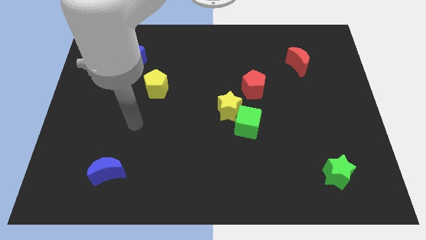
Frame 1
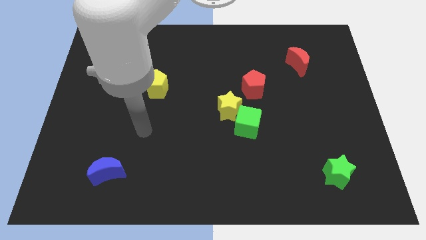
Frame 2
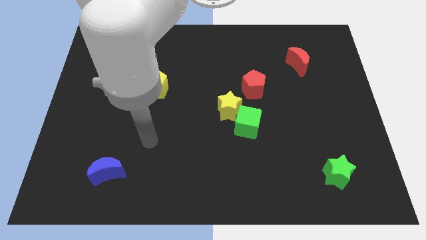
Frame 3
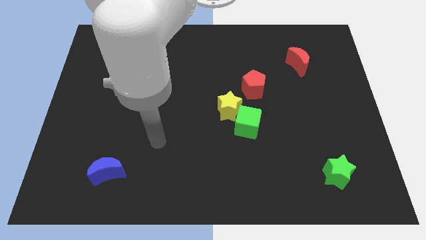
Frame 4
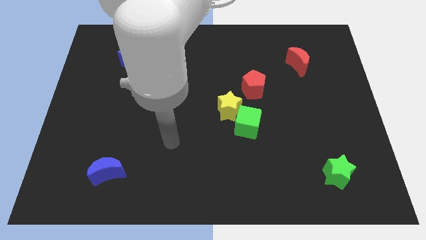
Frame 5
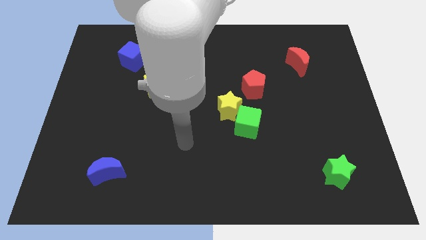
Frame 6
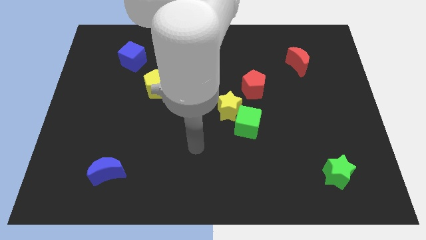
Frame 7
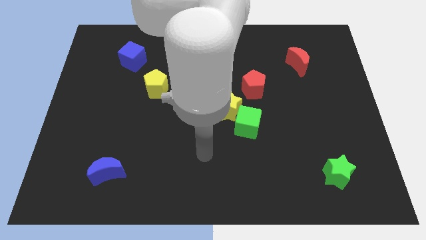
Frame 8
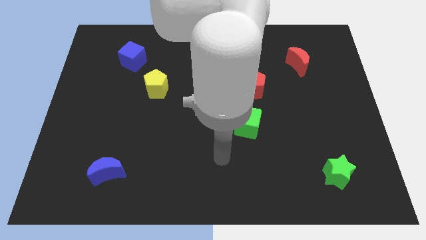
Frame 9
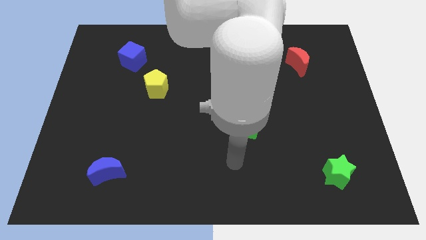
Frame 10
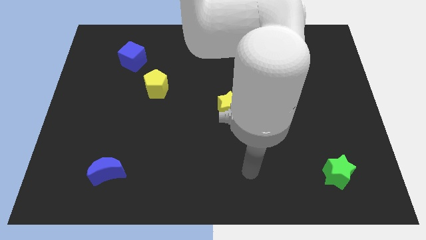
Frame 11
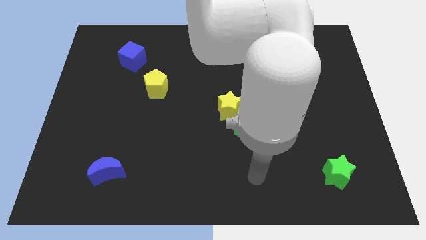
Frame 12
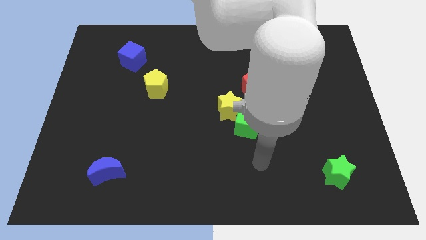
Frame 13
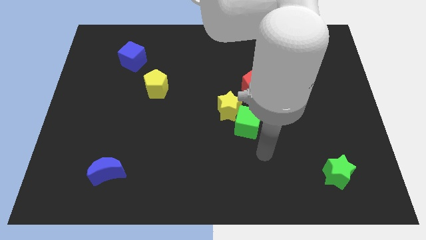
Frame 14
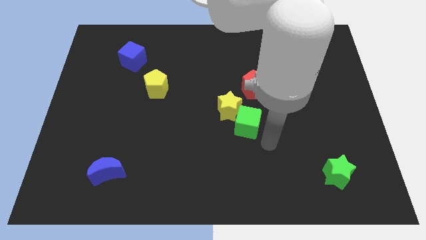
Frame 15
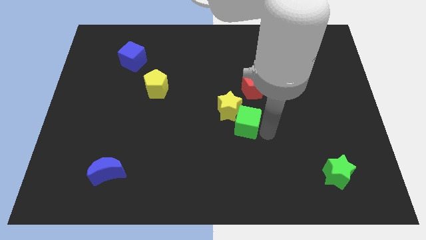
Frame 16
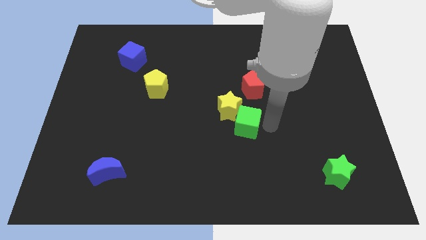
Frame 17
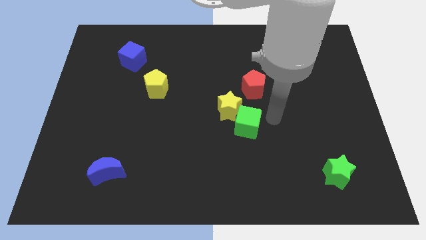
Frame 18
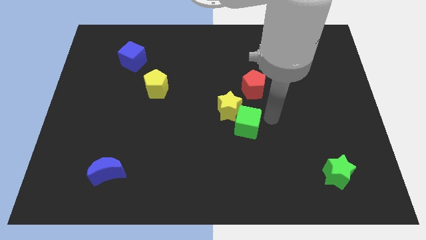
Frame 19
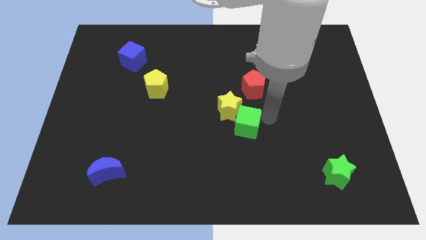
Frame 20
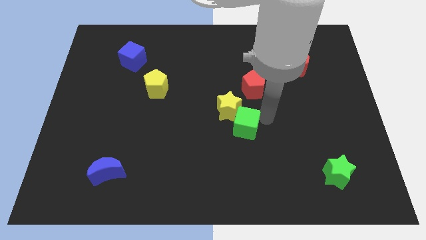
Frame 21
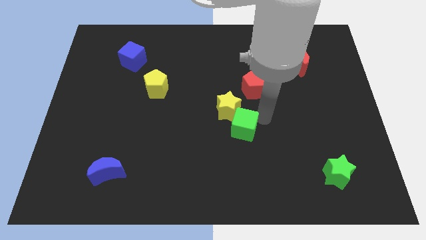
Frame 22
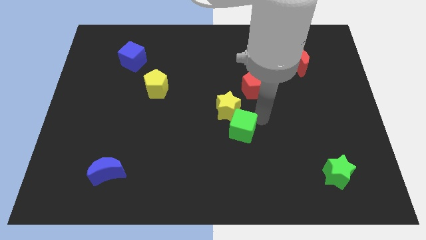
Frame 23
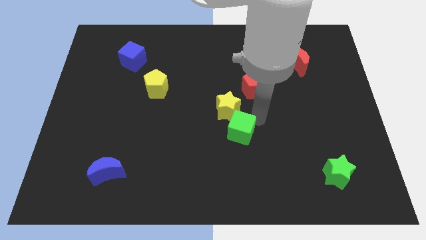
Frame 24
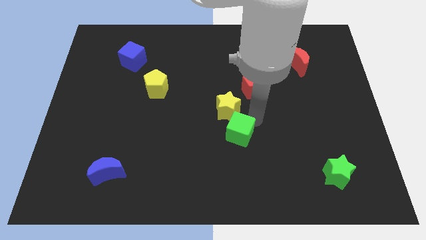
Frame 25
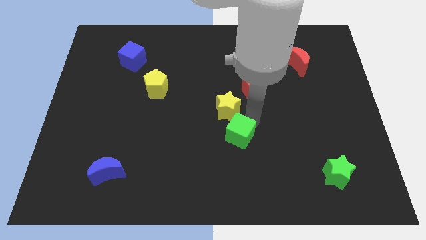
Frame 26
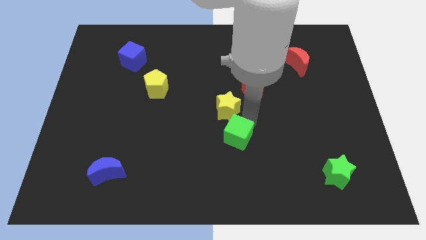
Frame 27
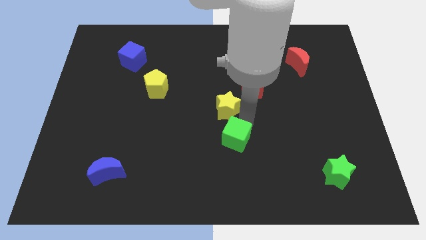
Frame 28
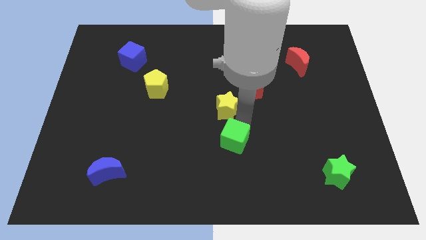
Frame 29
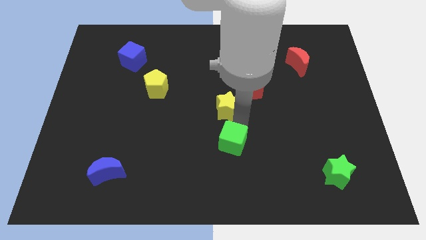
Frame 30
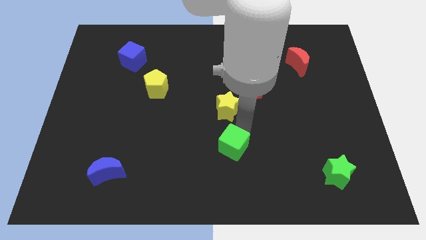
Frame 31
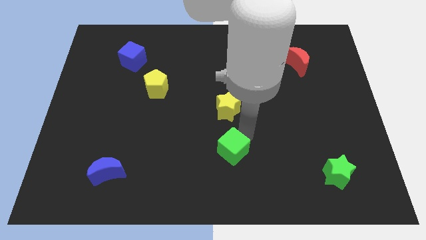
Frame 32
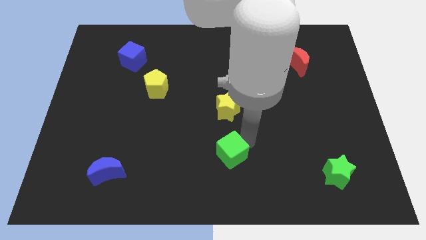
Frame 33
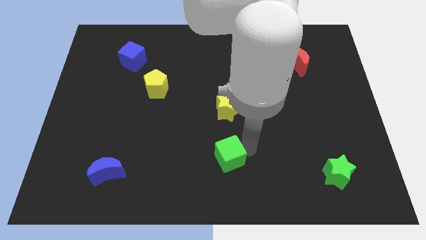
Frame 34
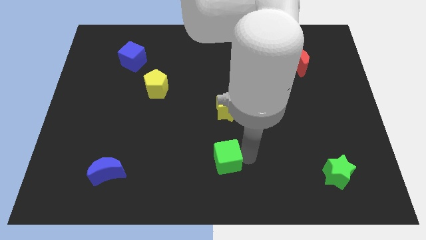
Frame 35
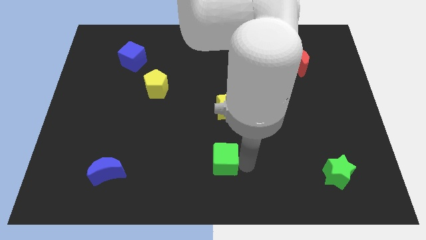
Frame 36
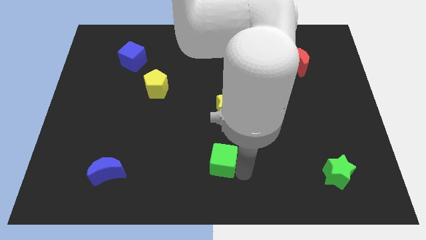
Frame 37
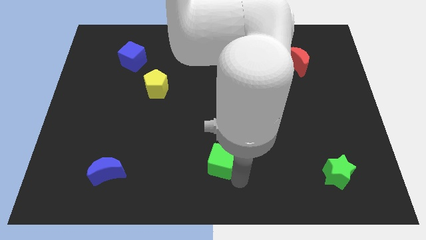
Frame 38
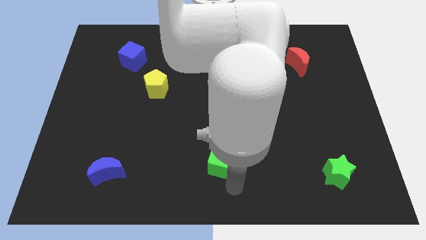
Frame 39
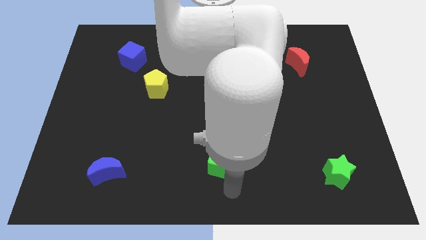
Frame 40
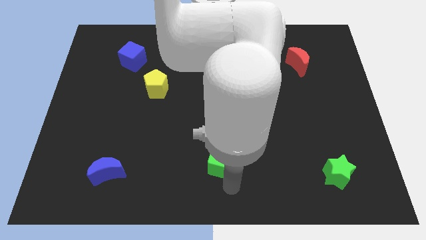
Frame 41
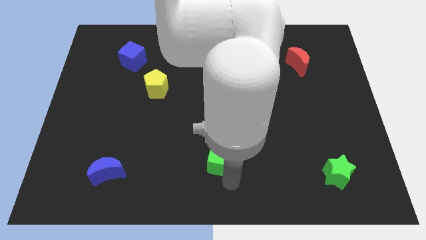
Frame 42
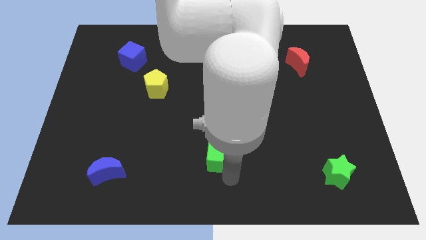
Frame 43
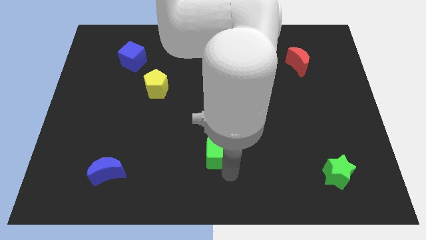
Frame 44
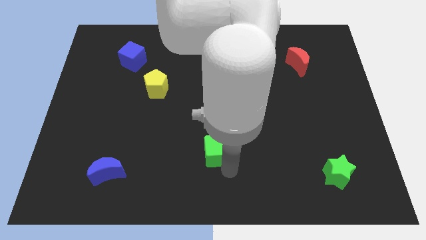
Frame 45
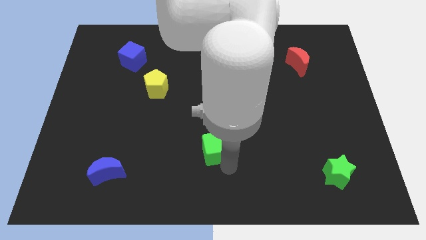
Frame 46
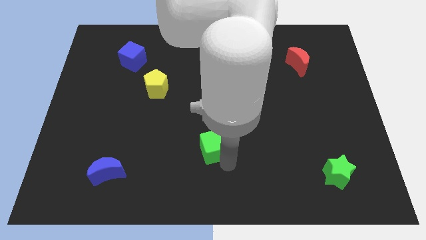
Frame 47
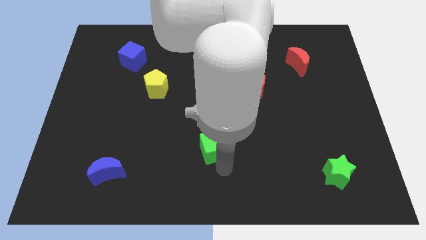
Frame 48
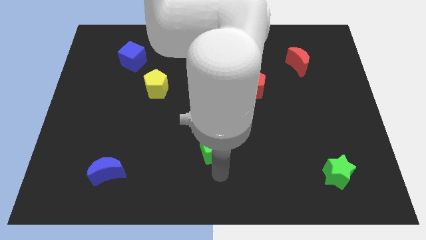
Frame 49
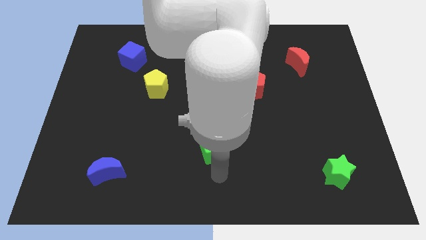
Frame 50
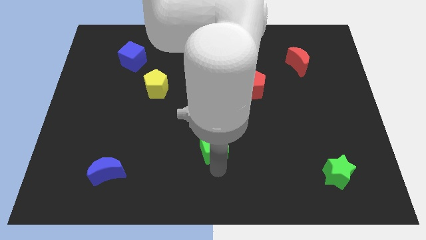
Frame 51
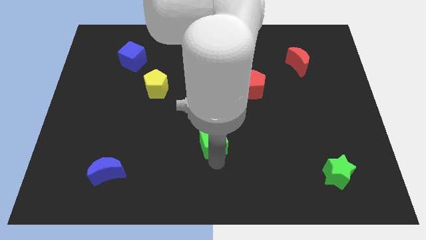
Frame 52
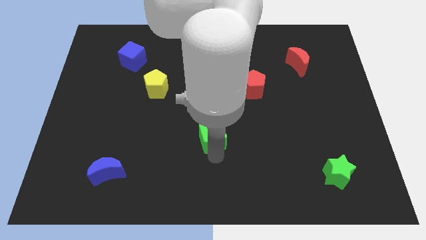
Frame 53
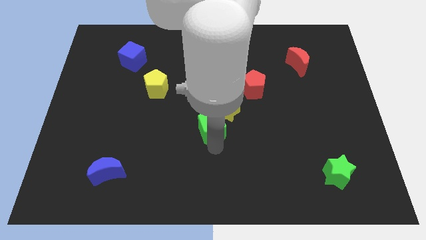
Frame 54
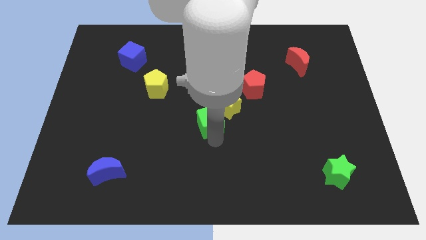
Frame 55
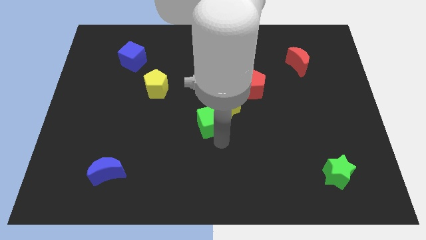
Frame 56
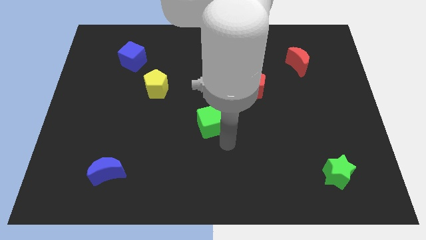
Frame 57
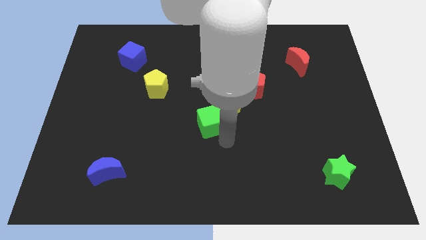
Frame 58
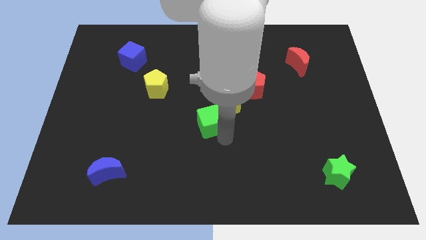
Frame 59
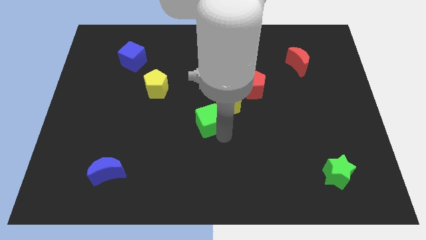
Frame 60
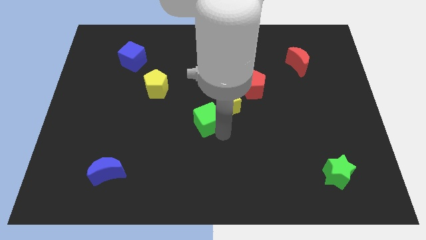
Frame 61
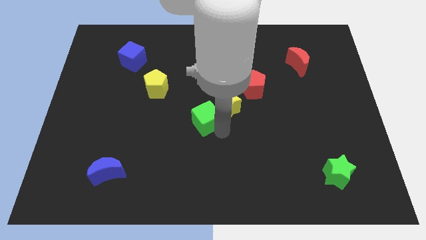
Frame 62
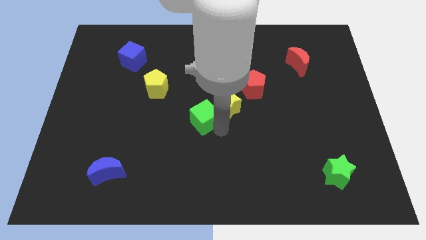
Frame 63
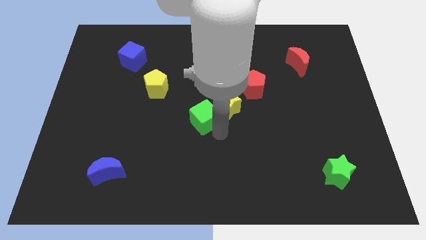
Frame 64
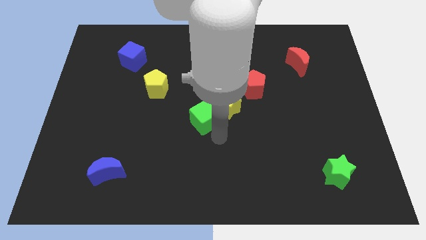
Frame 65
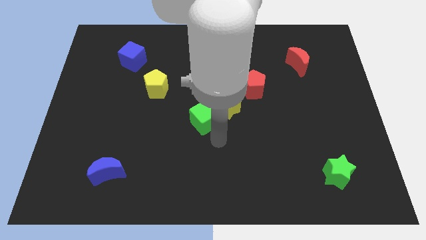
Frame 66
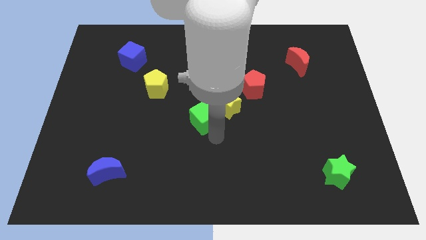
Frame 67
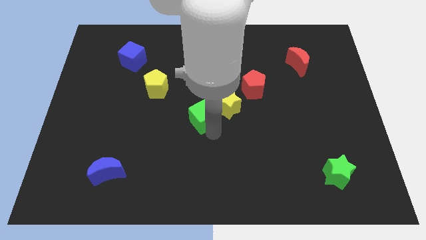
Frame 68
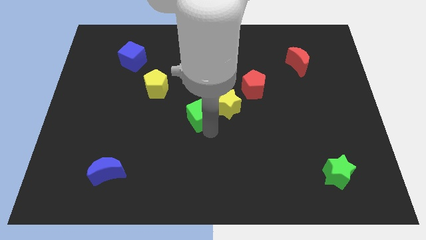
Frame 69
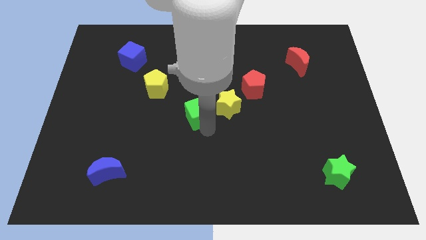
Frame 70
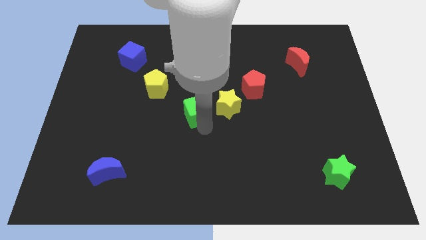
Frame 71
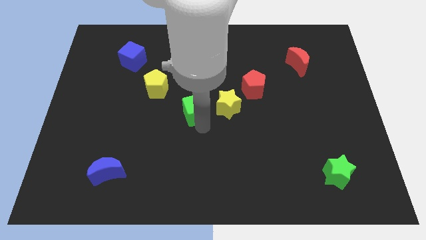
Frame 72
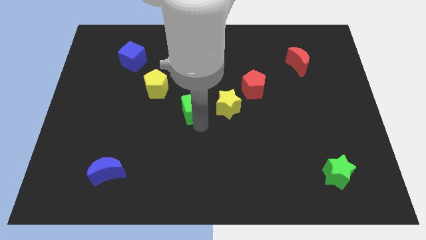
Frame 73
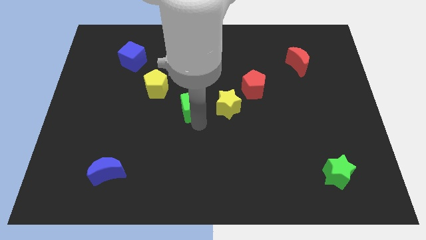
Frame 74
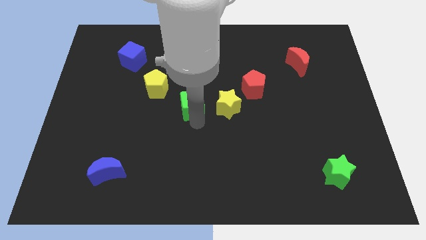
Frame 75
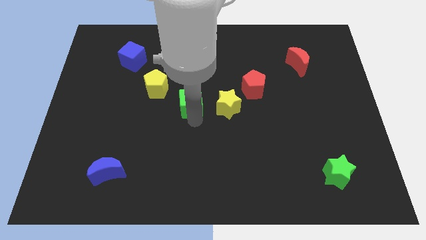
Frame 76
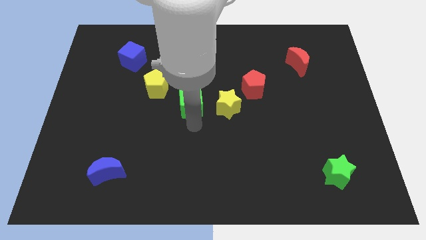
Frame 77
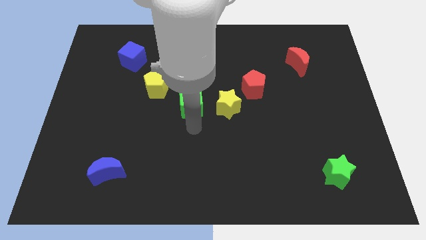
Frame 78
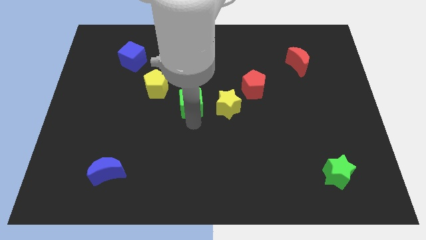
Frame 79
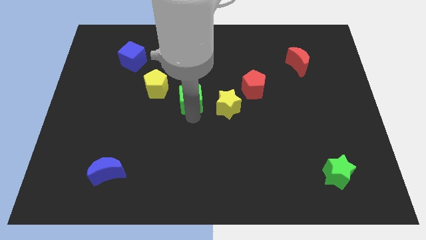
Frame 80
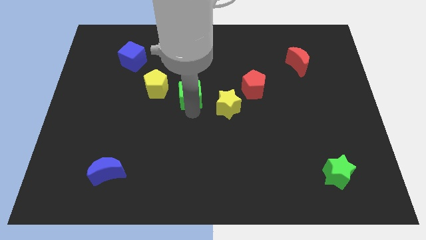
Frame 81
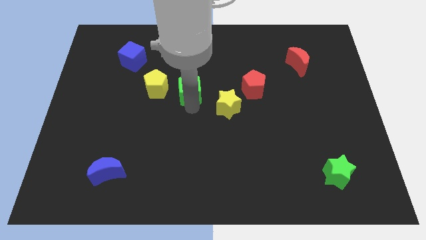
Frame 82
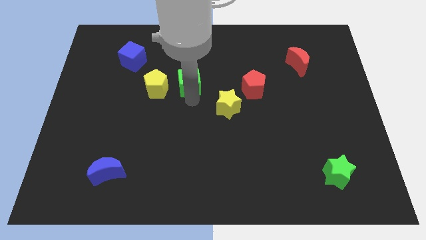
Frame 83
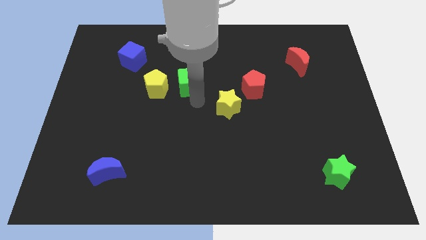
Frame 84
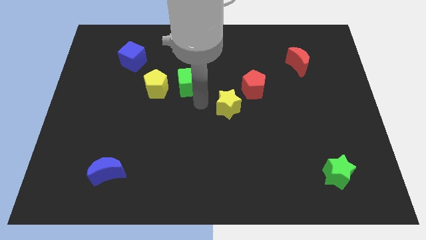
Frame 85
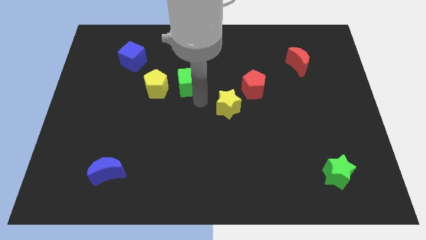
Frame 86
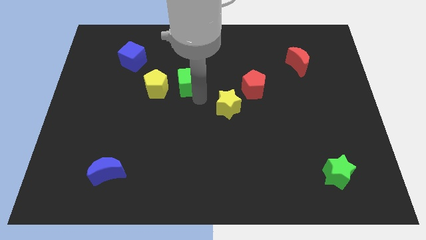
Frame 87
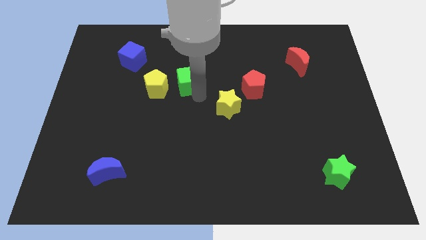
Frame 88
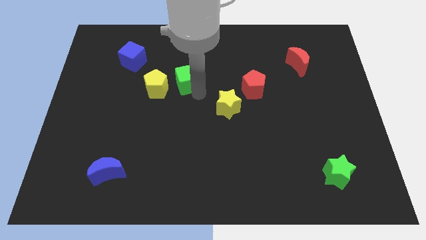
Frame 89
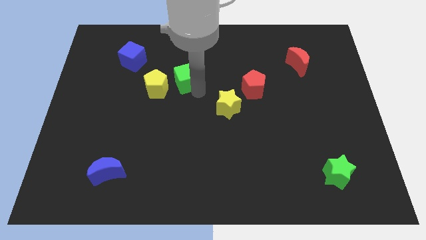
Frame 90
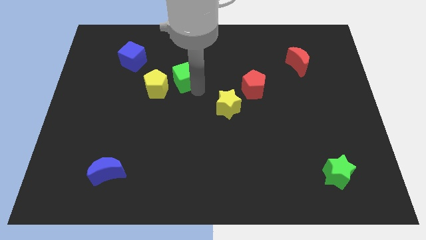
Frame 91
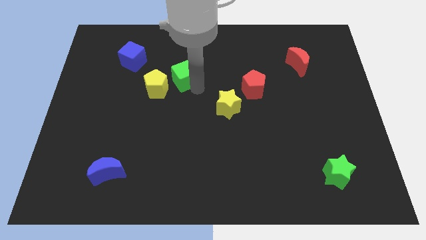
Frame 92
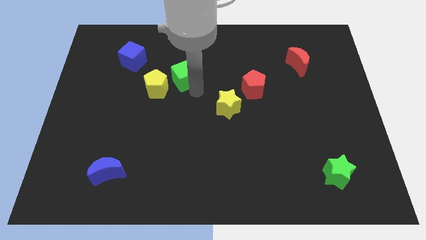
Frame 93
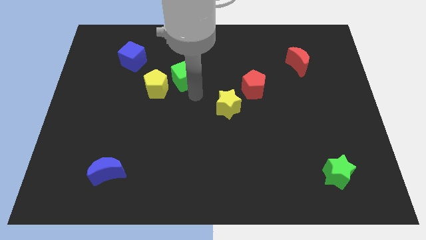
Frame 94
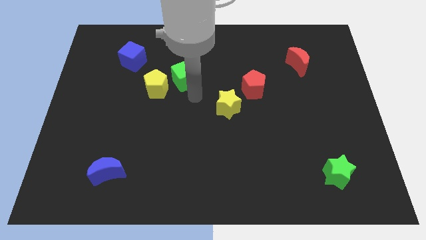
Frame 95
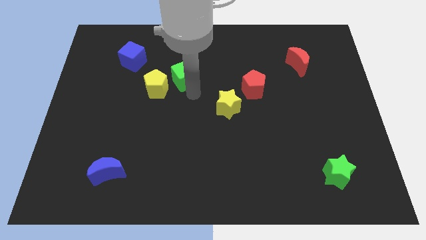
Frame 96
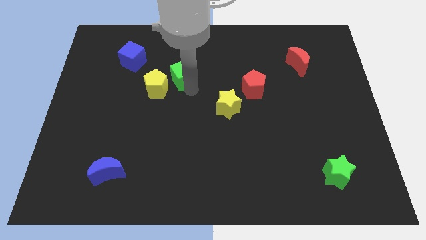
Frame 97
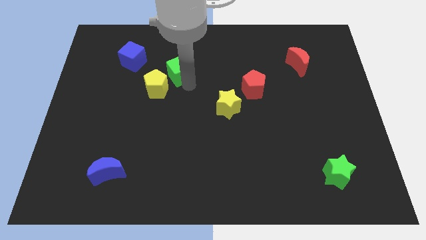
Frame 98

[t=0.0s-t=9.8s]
slide the green cube to the right side of the blue cube
